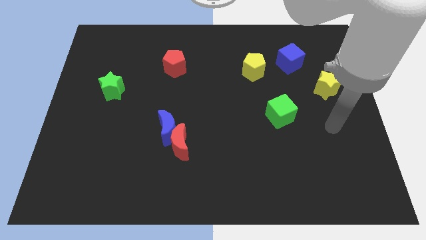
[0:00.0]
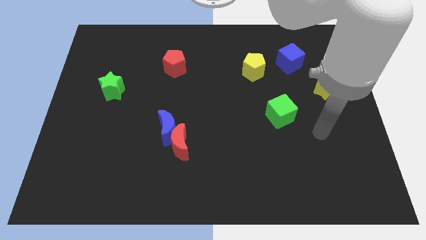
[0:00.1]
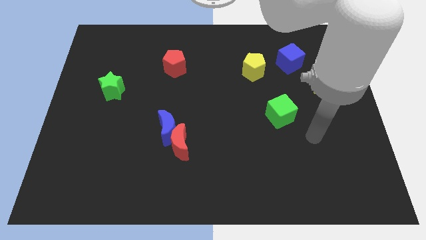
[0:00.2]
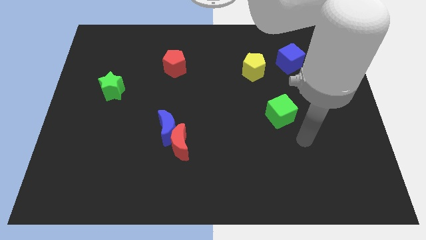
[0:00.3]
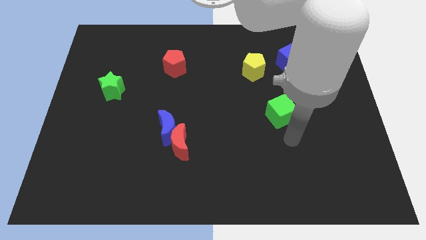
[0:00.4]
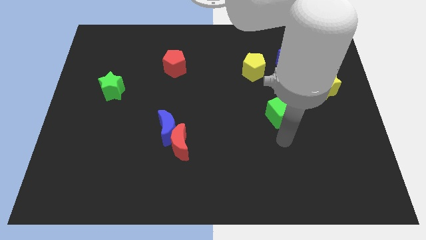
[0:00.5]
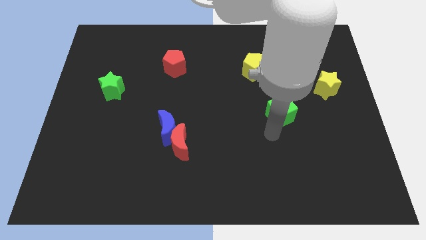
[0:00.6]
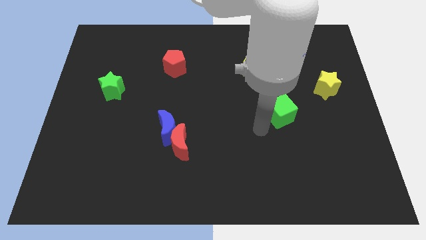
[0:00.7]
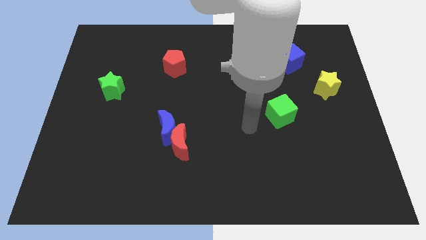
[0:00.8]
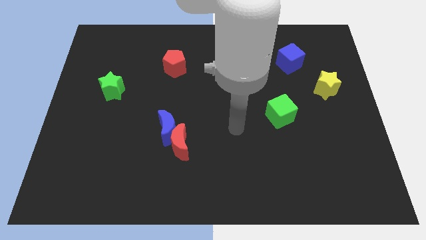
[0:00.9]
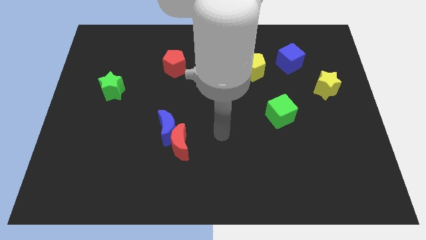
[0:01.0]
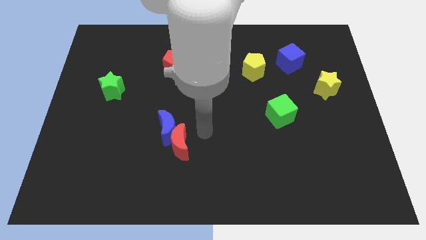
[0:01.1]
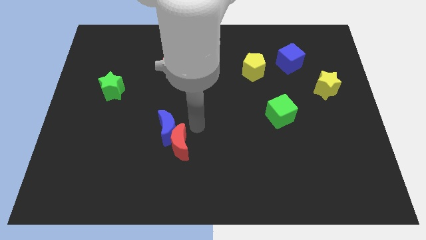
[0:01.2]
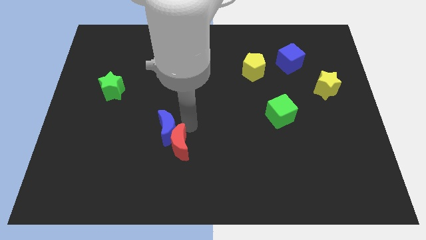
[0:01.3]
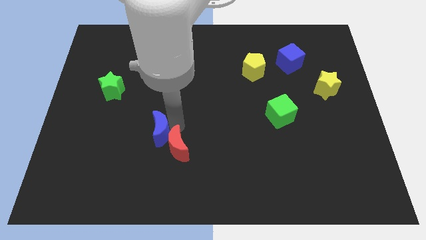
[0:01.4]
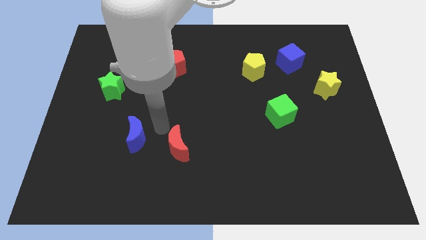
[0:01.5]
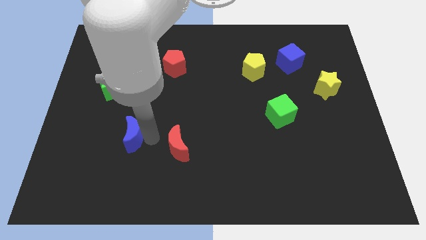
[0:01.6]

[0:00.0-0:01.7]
pull the red moon apart from the blue moon

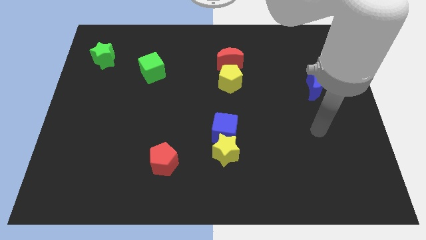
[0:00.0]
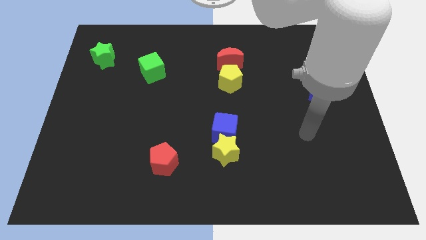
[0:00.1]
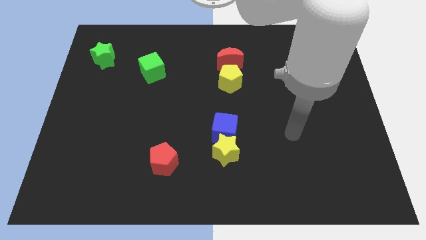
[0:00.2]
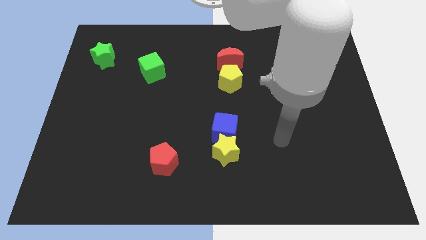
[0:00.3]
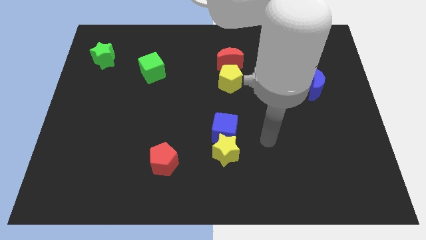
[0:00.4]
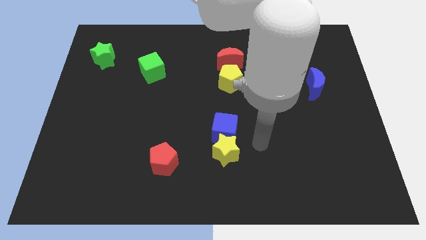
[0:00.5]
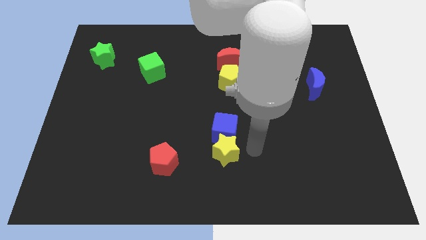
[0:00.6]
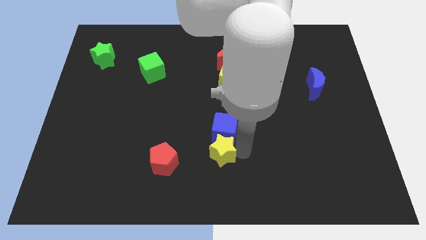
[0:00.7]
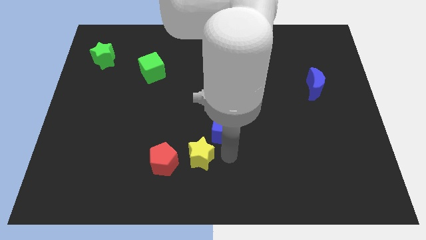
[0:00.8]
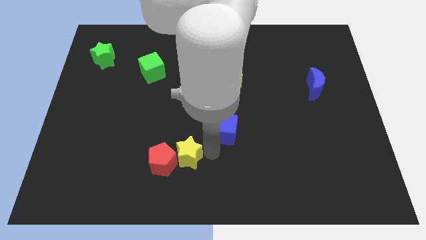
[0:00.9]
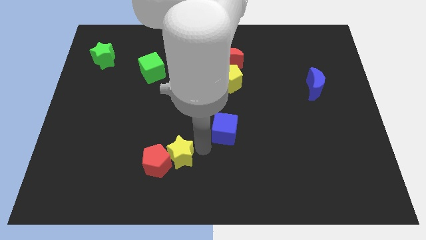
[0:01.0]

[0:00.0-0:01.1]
pull the blue cube apart from the yellow star

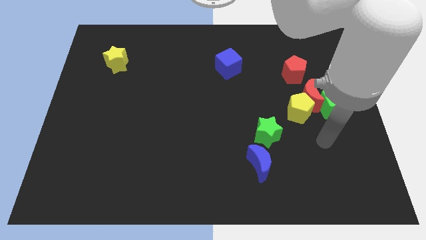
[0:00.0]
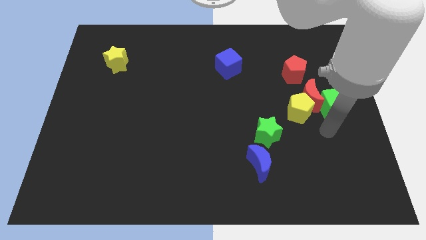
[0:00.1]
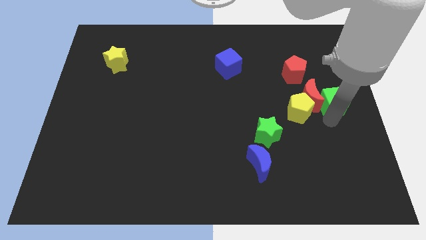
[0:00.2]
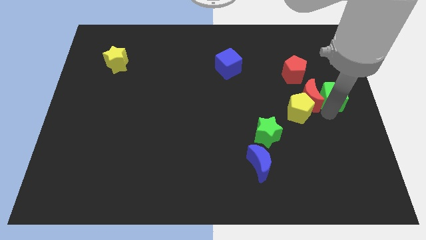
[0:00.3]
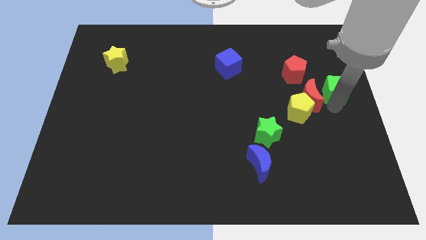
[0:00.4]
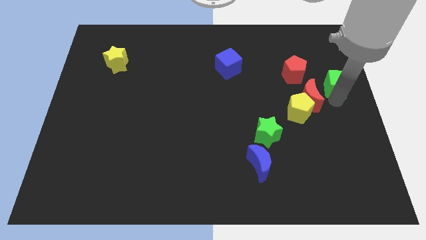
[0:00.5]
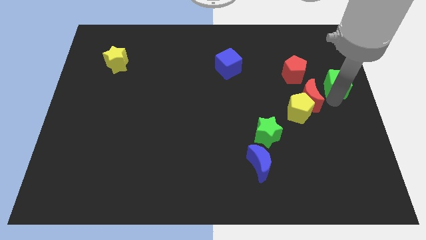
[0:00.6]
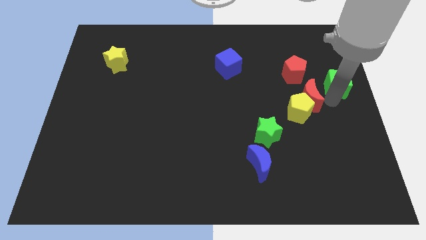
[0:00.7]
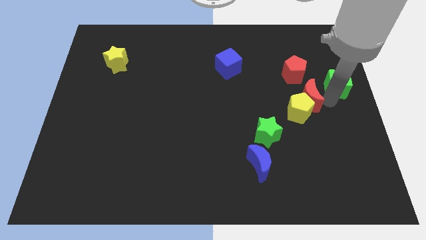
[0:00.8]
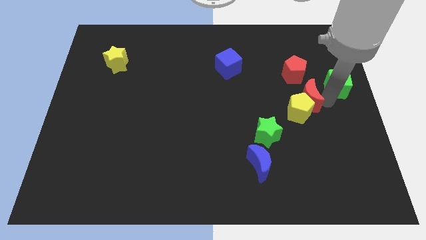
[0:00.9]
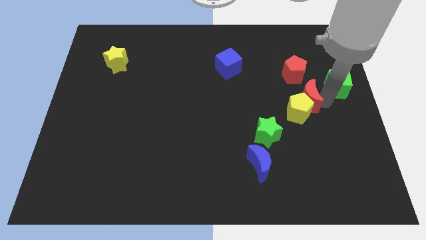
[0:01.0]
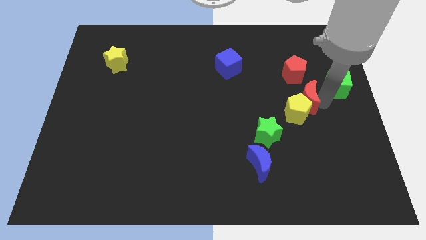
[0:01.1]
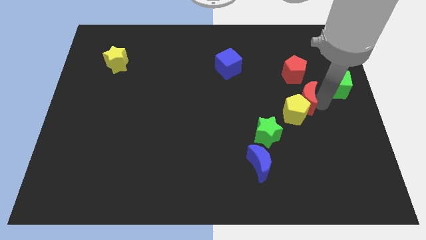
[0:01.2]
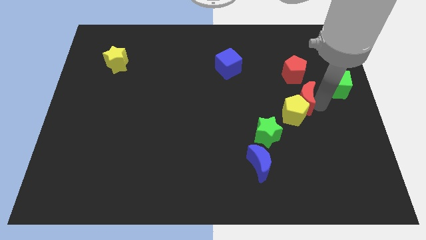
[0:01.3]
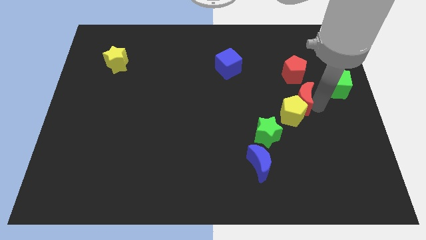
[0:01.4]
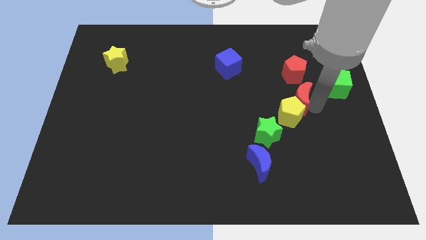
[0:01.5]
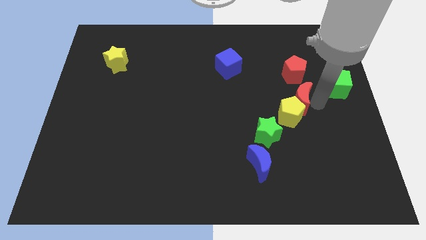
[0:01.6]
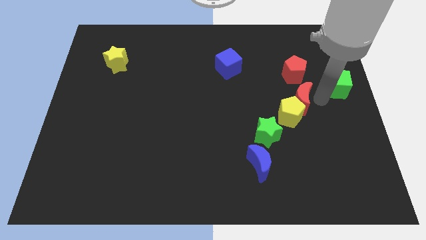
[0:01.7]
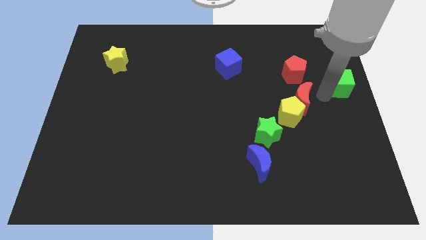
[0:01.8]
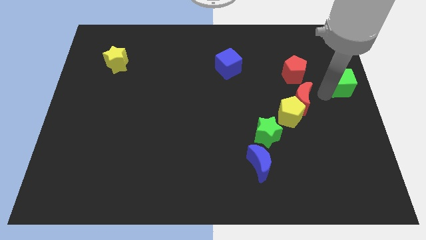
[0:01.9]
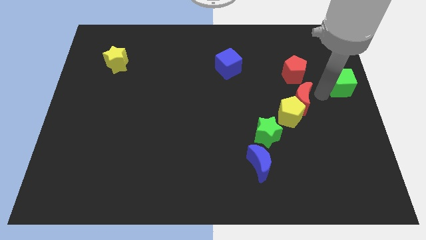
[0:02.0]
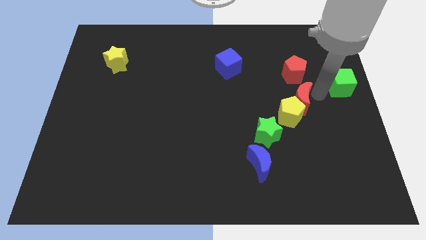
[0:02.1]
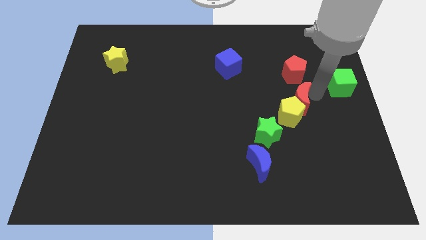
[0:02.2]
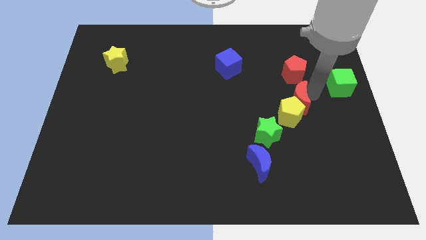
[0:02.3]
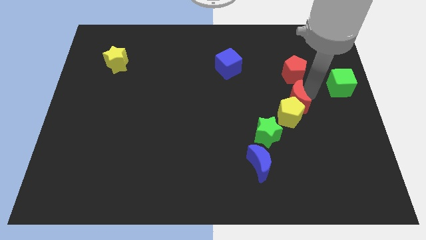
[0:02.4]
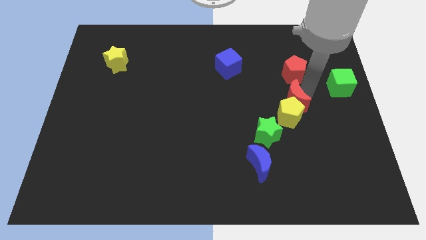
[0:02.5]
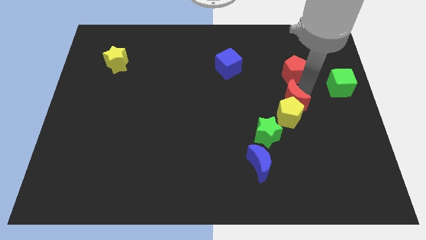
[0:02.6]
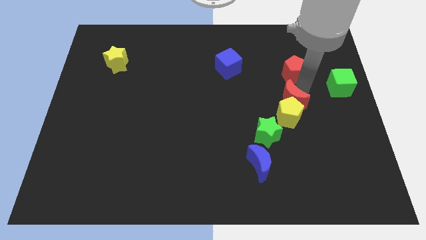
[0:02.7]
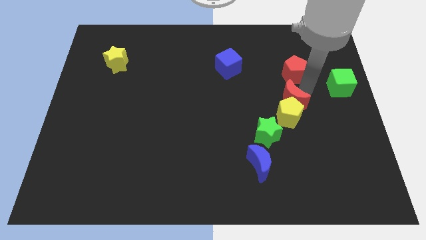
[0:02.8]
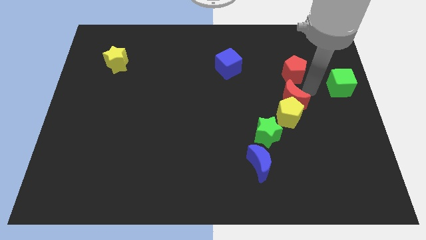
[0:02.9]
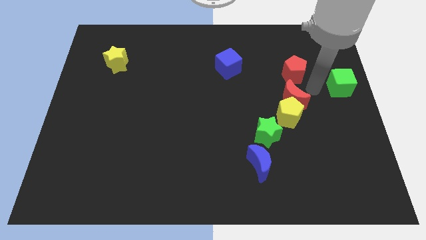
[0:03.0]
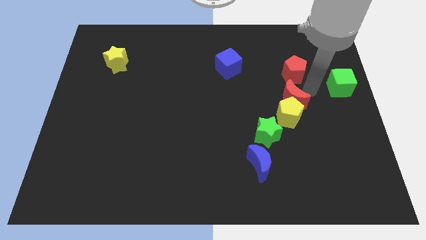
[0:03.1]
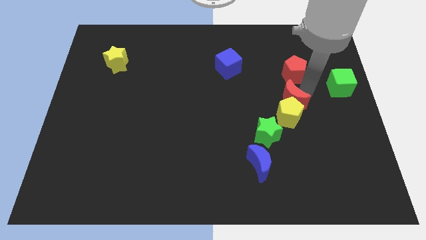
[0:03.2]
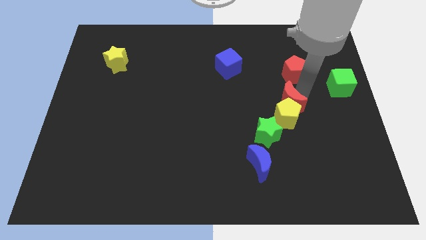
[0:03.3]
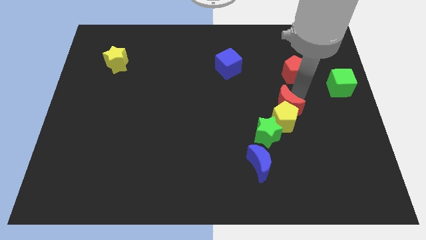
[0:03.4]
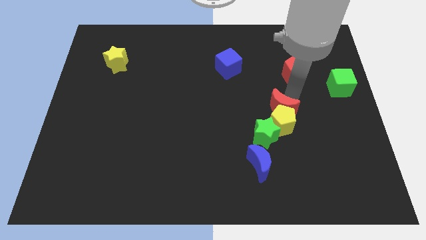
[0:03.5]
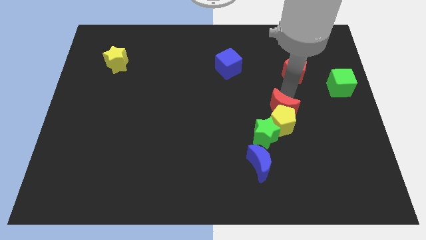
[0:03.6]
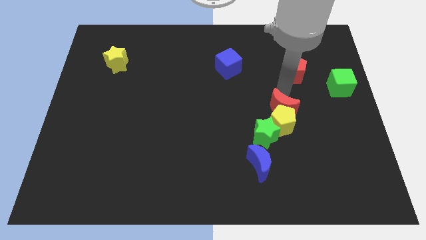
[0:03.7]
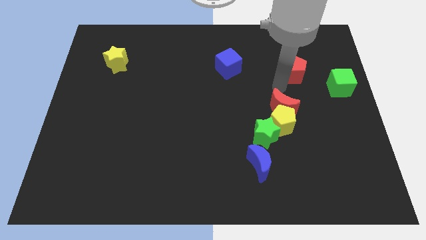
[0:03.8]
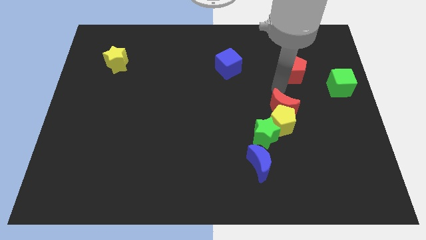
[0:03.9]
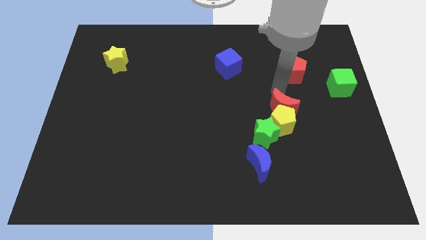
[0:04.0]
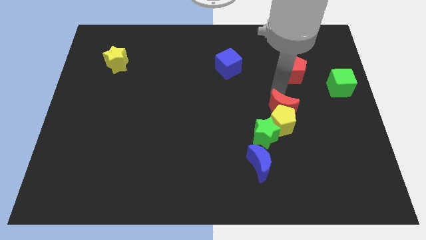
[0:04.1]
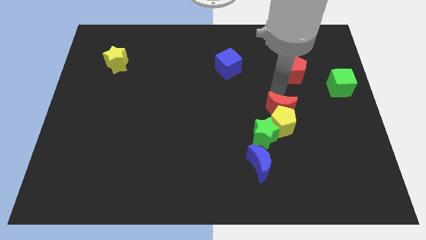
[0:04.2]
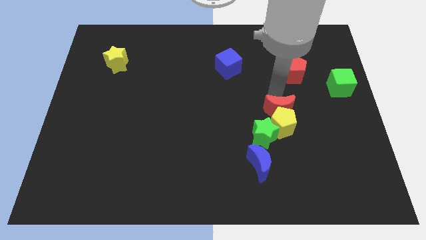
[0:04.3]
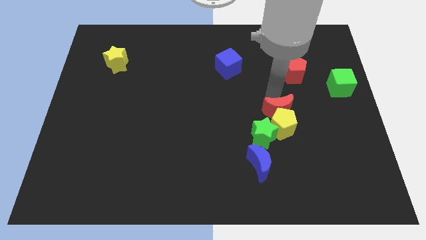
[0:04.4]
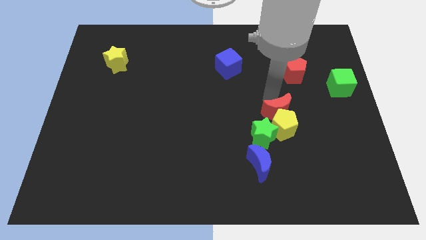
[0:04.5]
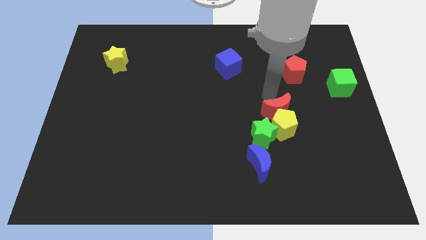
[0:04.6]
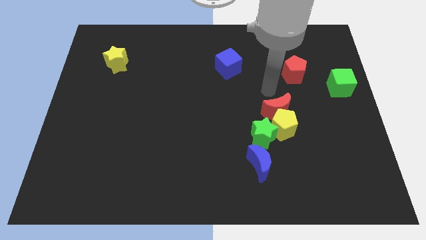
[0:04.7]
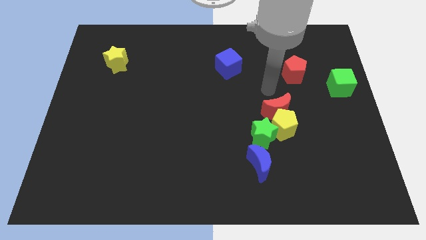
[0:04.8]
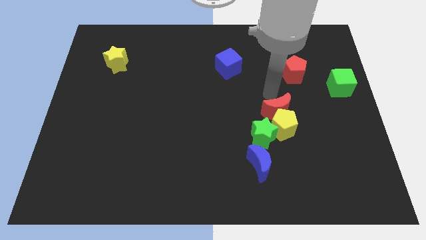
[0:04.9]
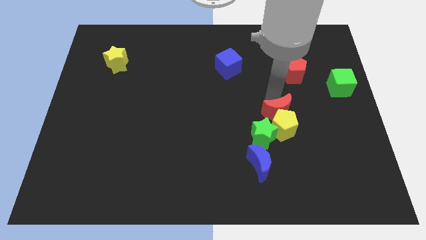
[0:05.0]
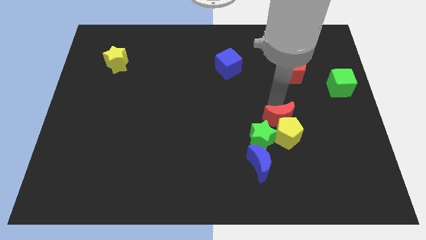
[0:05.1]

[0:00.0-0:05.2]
separate the red moon from the yellow pentagon, green cube, and red pentagon

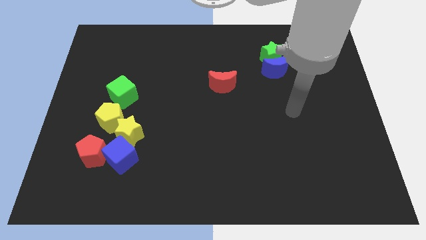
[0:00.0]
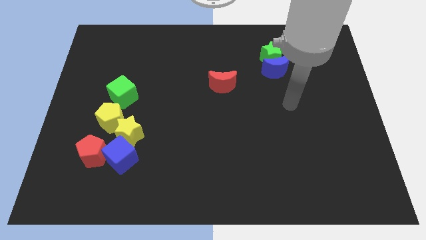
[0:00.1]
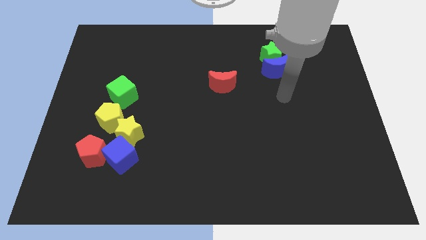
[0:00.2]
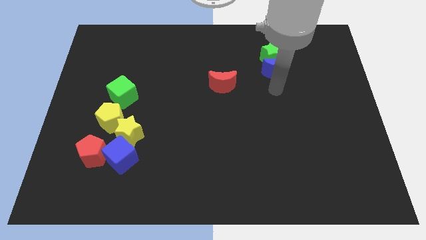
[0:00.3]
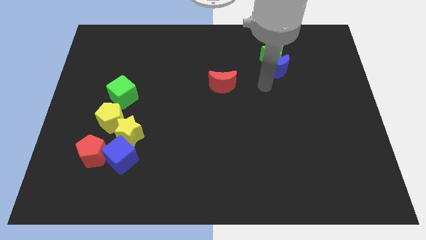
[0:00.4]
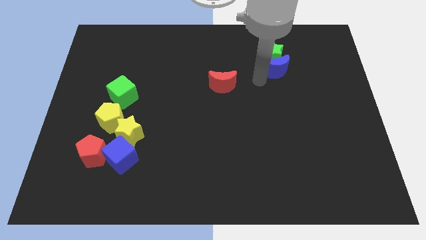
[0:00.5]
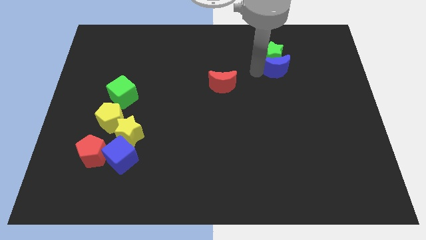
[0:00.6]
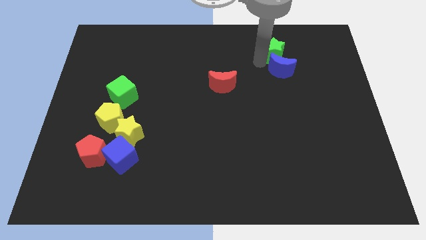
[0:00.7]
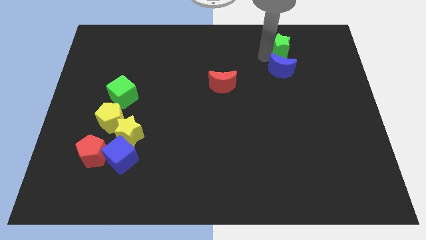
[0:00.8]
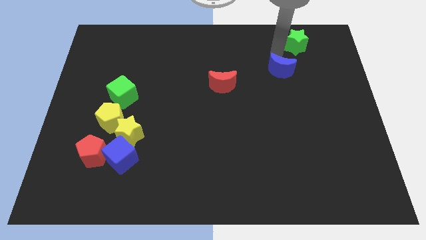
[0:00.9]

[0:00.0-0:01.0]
pull the blue moon apart from the green star

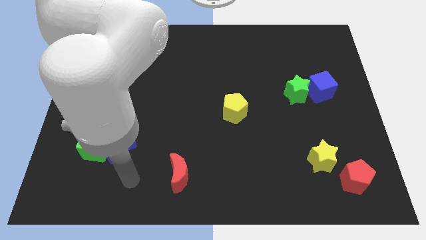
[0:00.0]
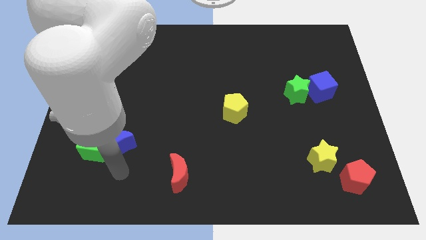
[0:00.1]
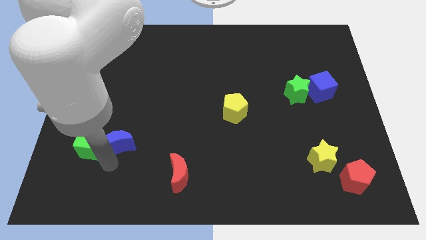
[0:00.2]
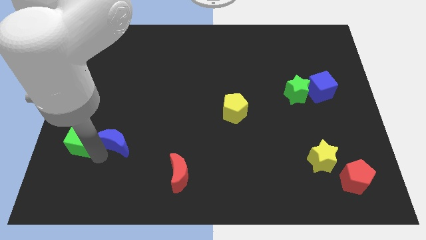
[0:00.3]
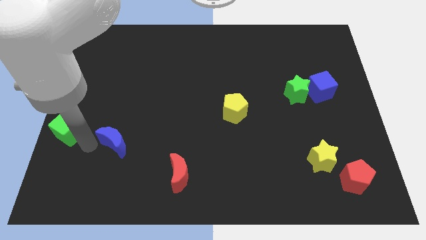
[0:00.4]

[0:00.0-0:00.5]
move the blue moon away from the green cube
